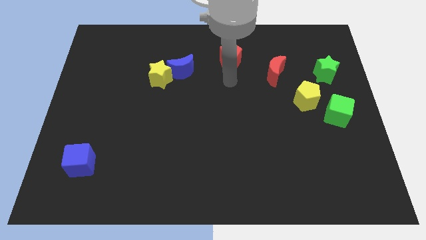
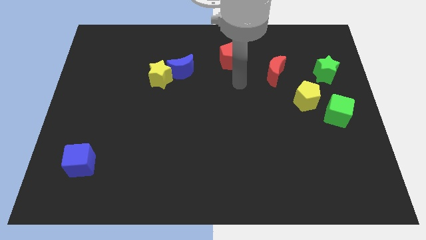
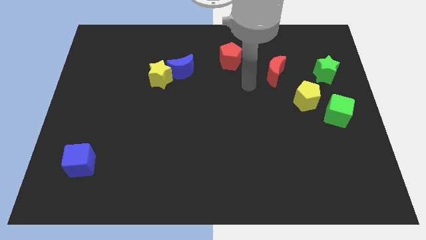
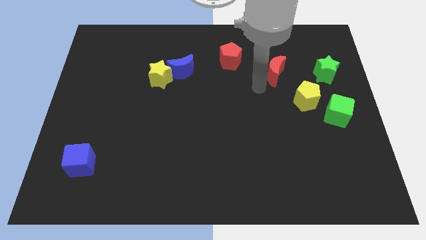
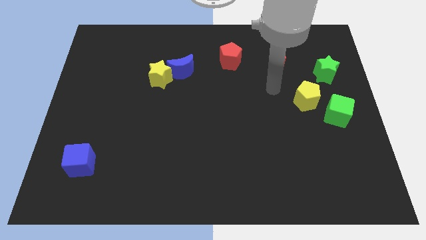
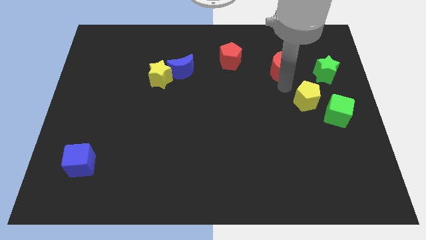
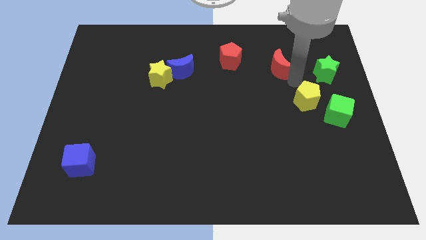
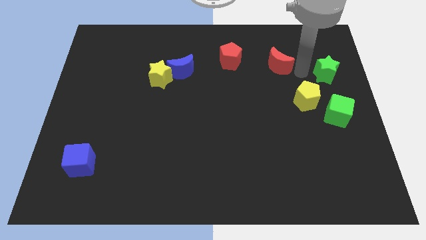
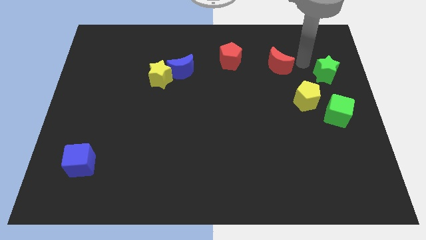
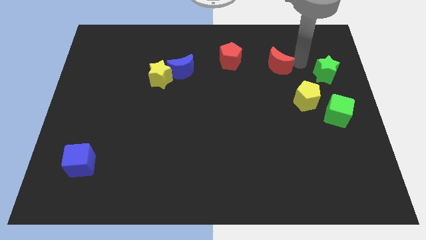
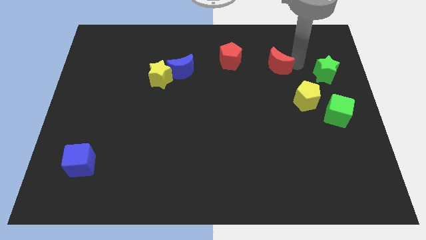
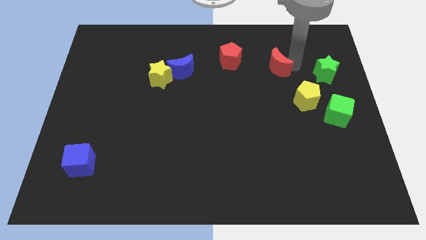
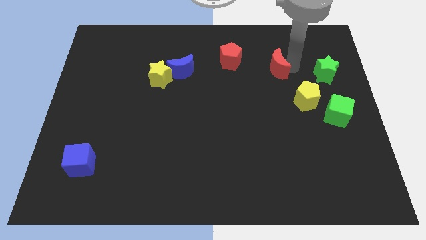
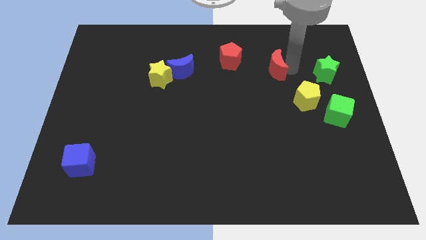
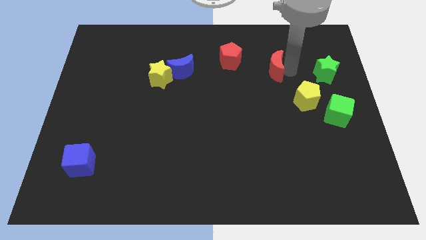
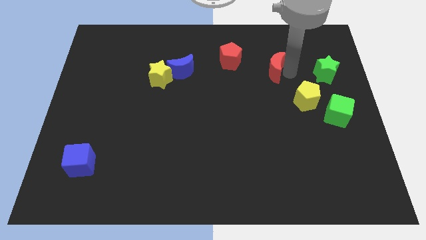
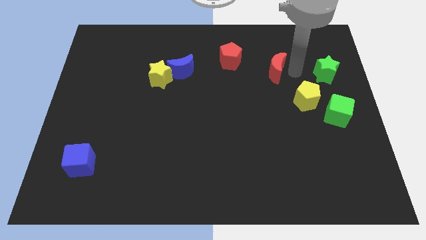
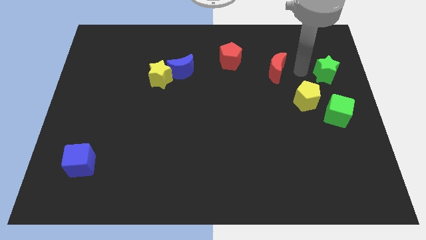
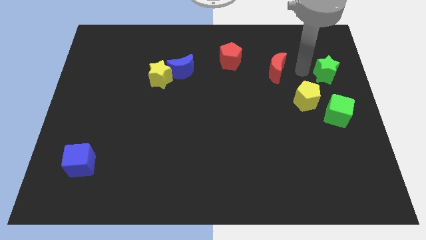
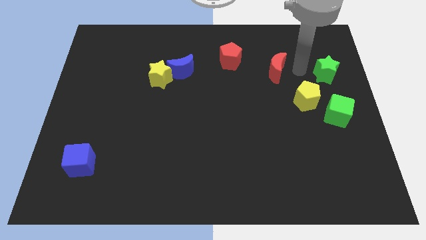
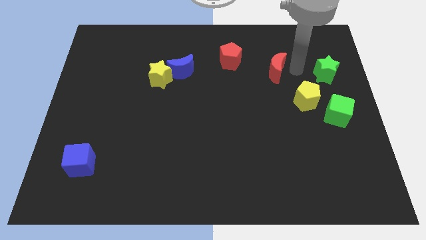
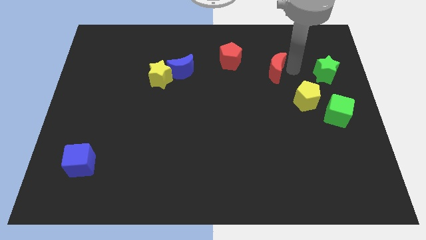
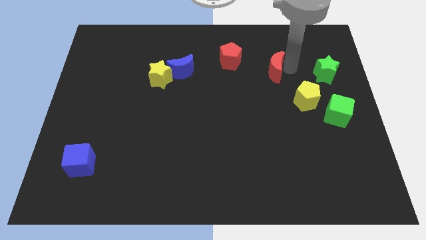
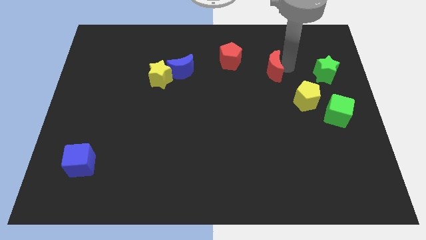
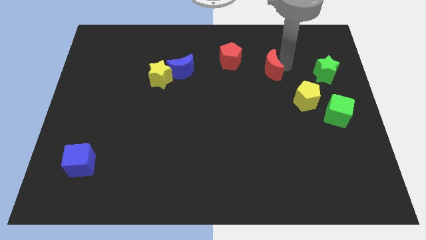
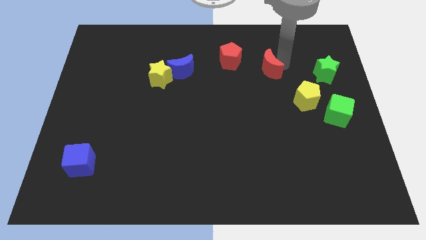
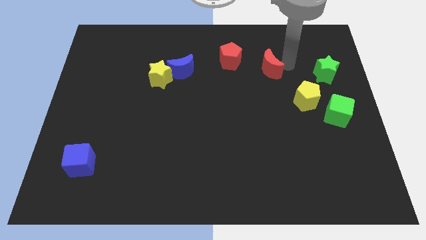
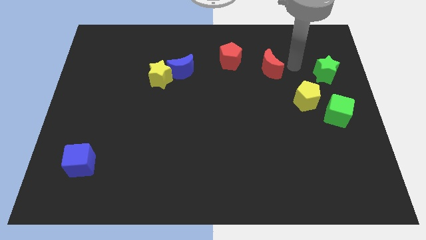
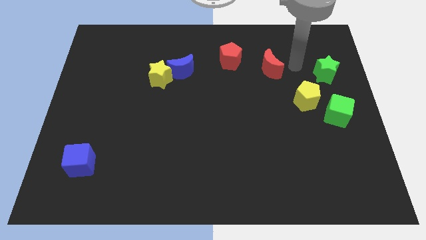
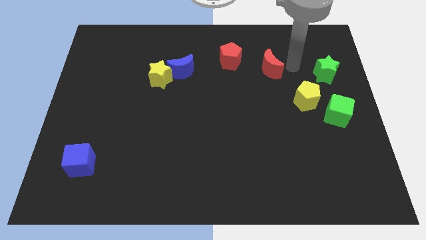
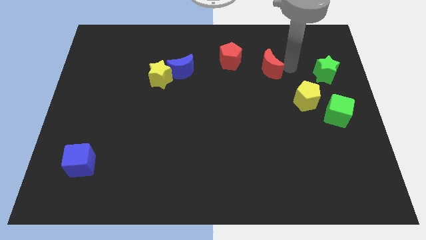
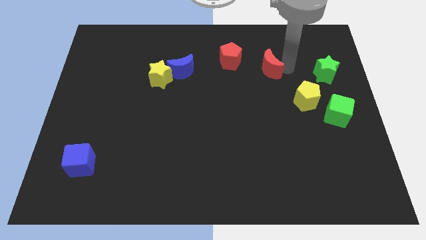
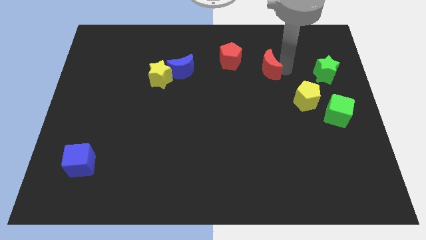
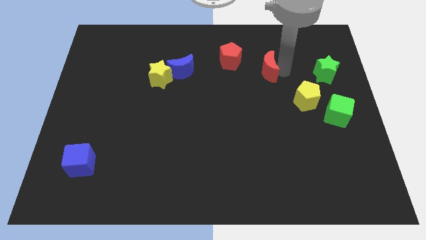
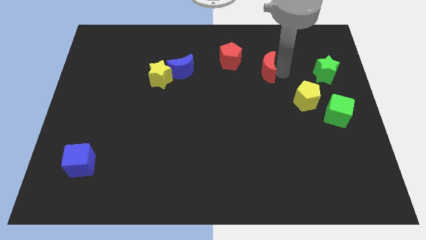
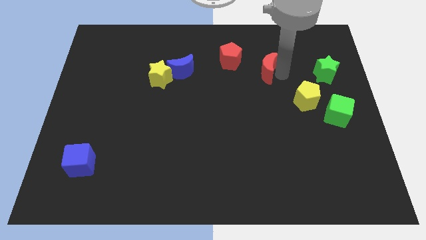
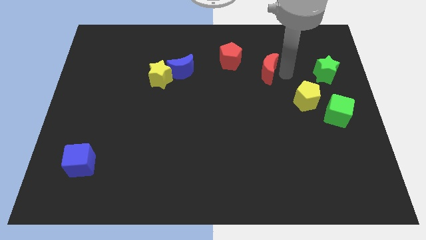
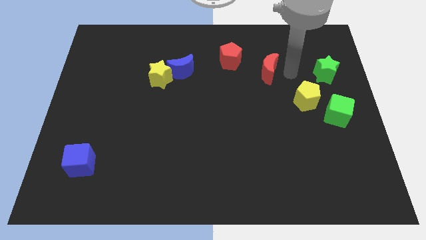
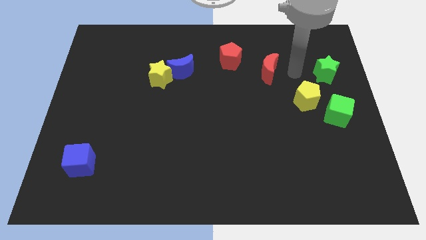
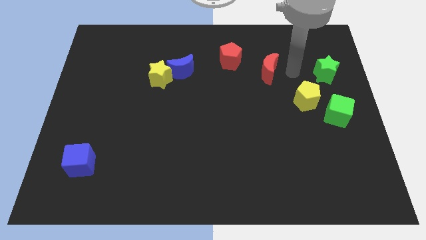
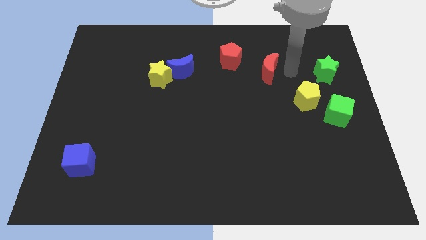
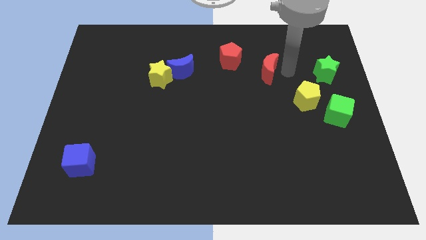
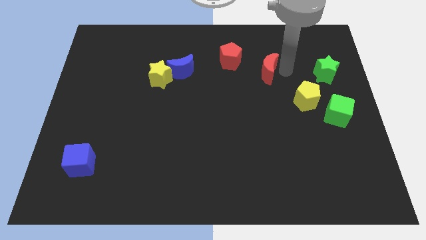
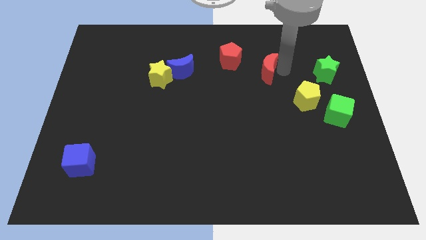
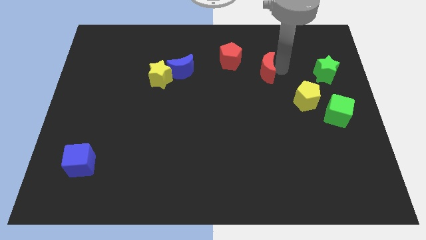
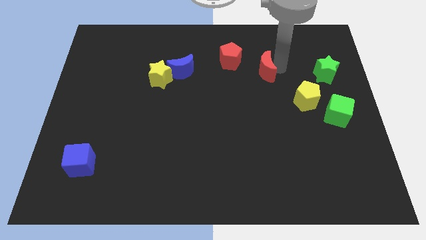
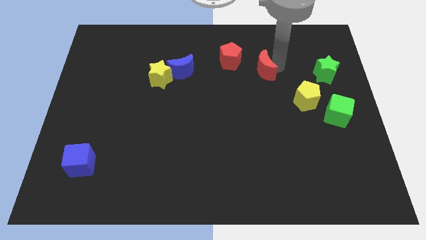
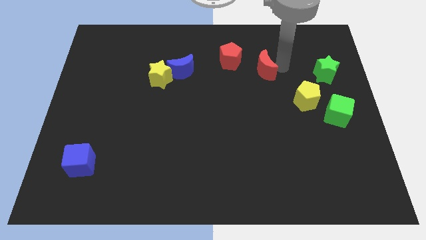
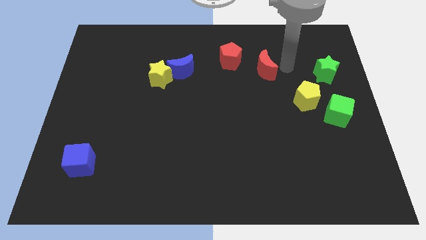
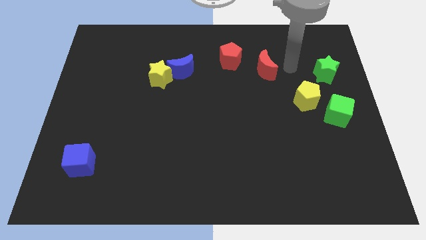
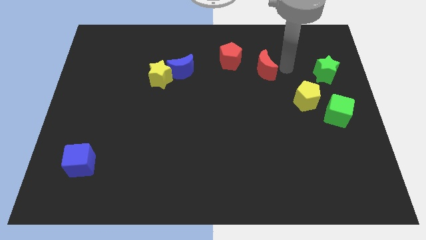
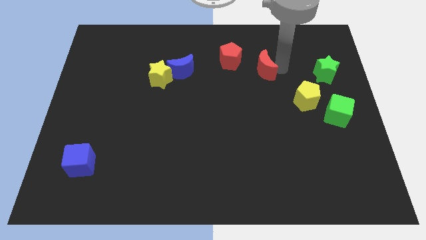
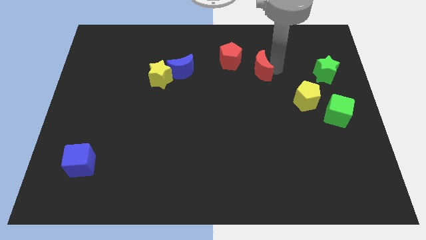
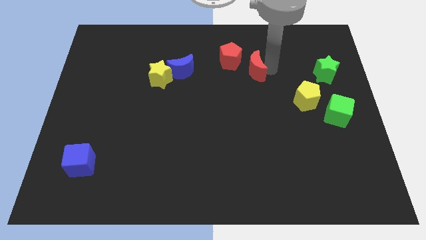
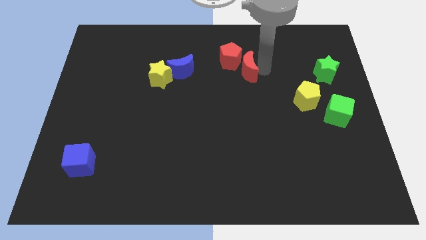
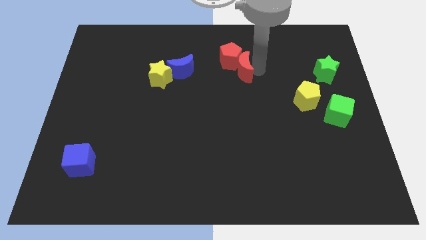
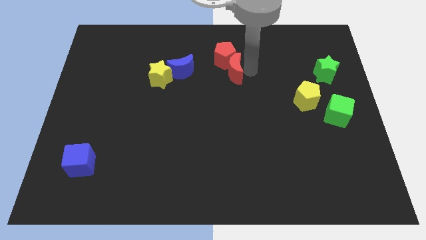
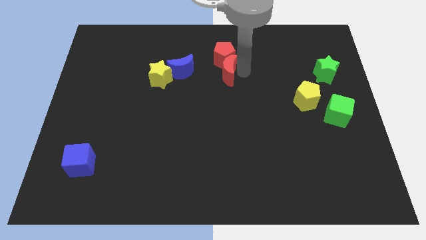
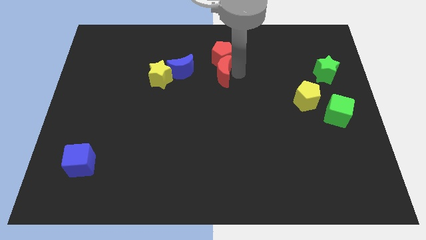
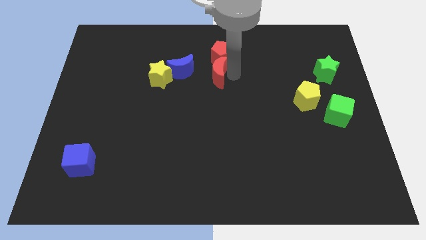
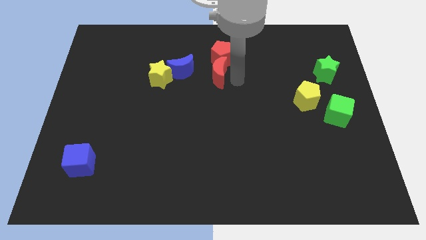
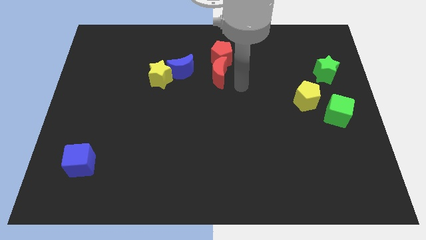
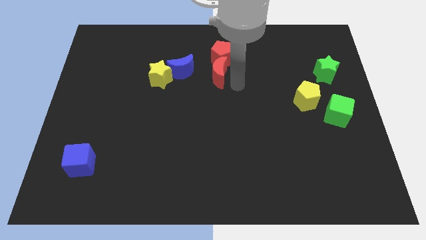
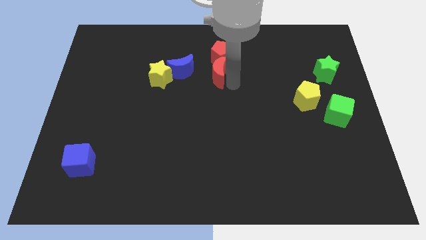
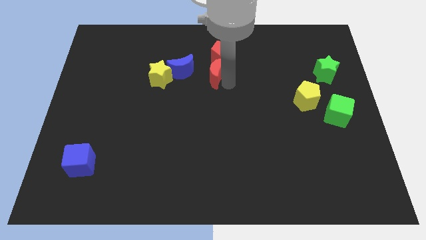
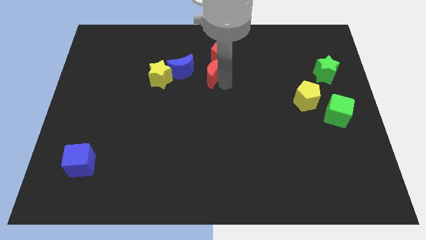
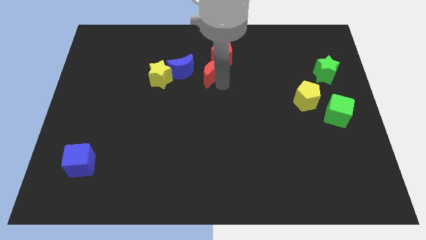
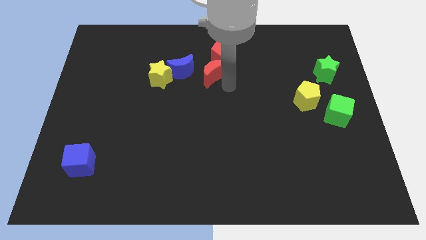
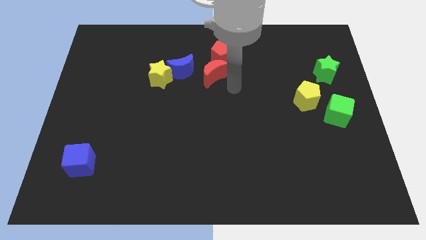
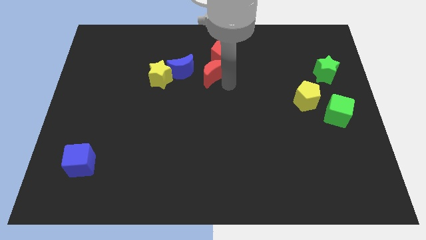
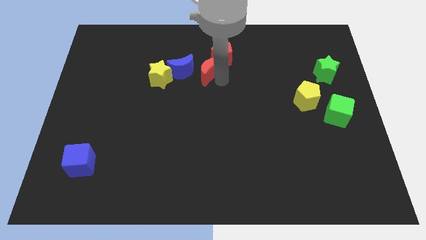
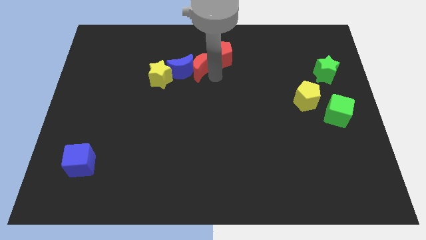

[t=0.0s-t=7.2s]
push the red moon to the left of the red pentagon

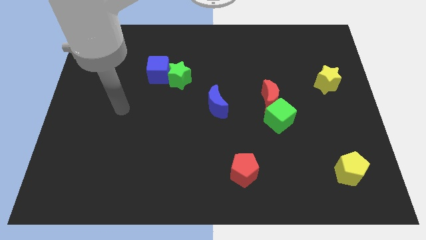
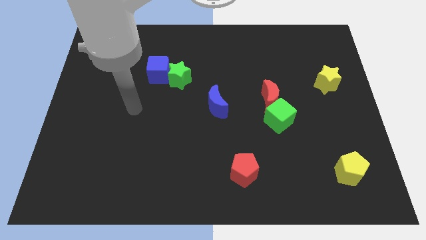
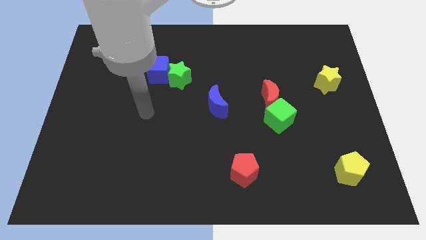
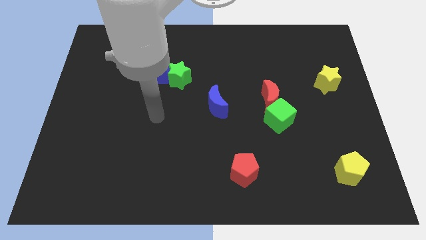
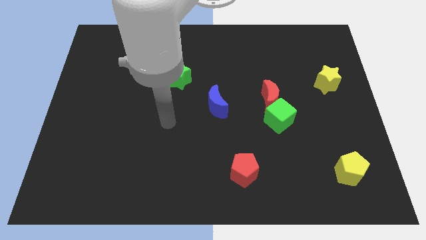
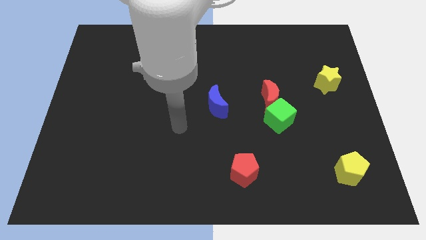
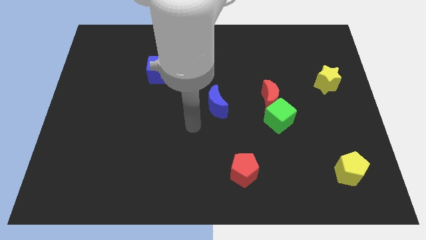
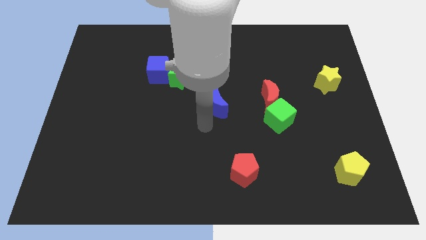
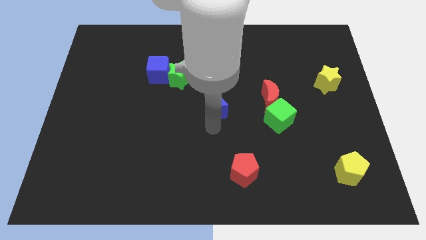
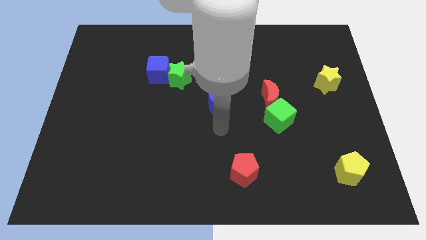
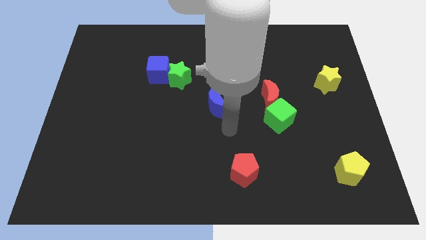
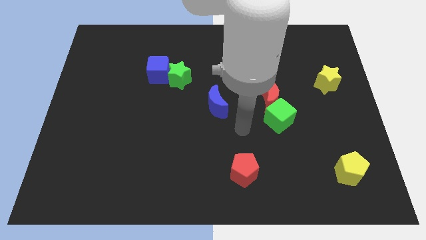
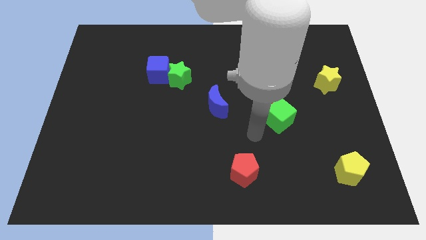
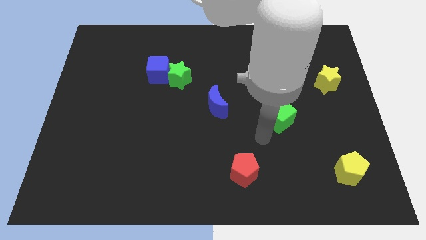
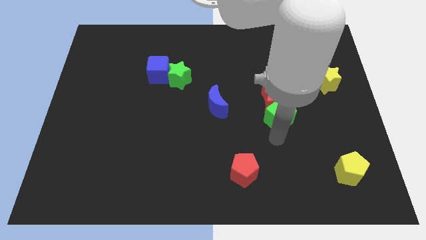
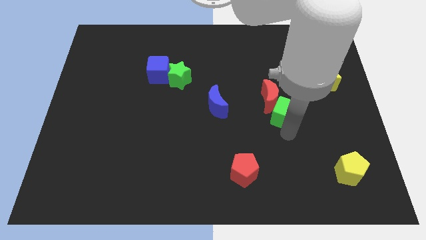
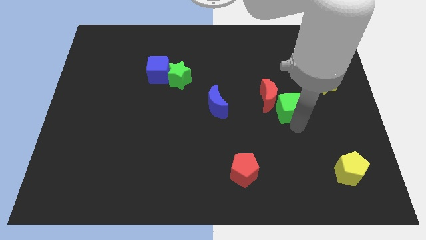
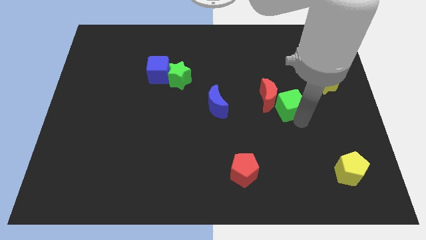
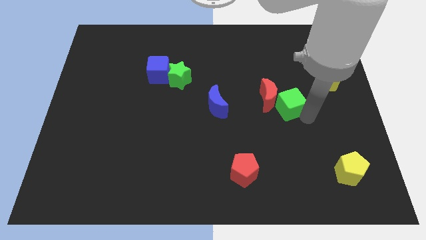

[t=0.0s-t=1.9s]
move the yellow star to the top right of the green cube
